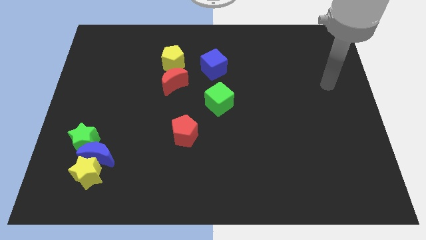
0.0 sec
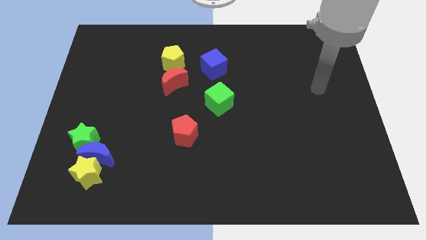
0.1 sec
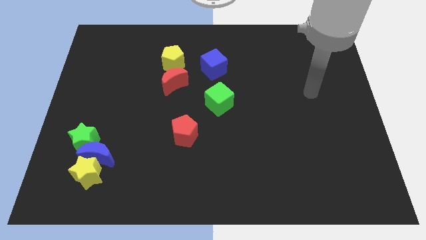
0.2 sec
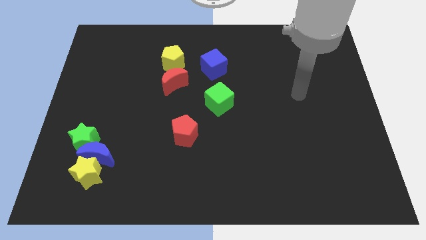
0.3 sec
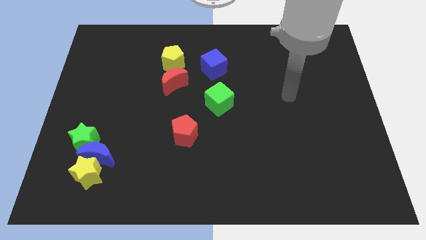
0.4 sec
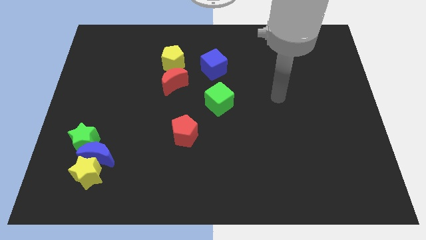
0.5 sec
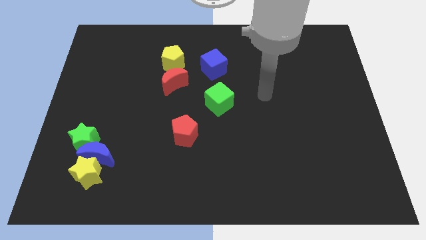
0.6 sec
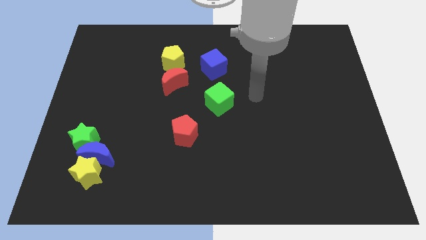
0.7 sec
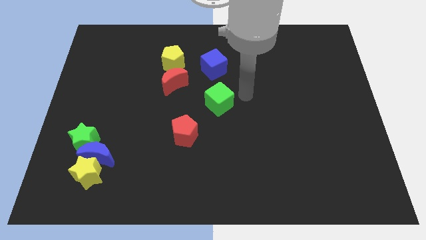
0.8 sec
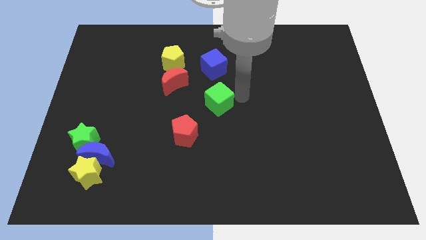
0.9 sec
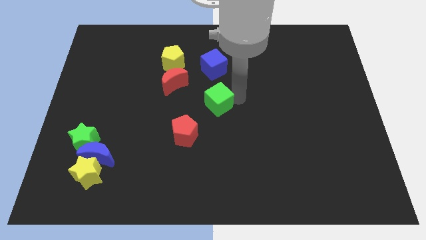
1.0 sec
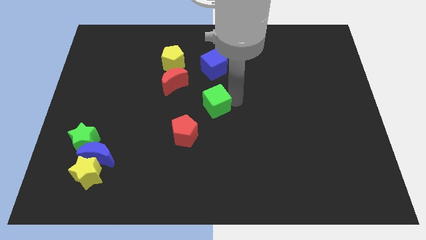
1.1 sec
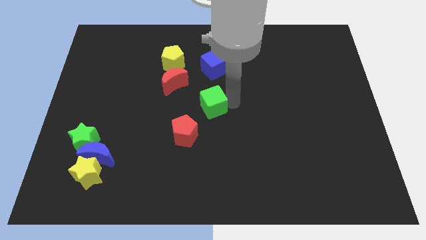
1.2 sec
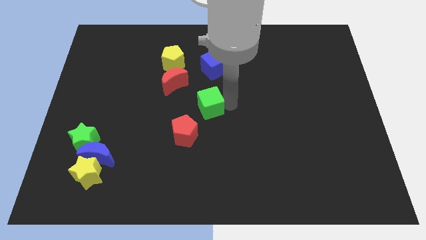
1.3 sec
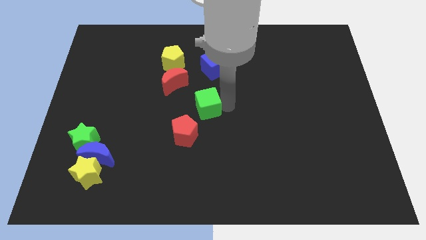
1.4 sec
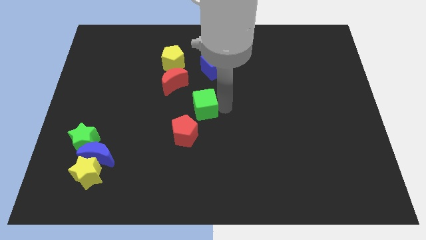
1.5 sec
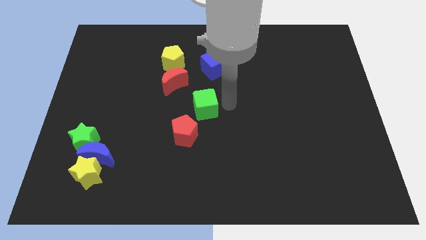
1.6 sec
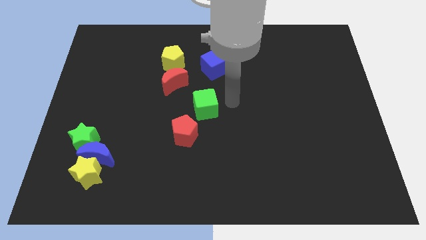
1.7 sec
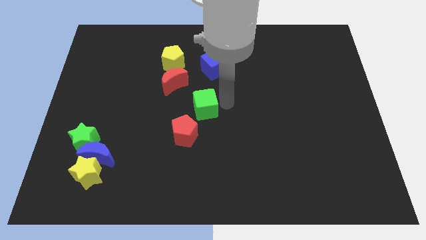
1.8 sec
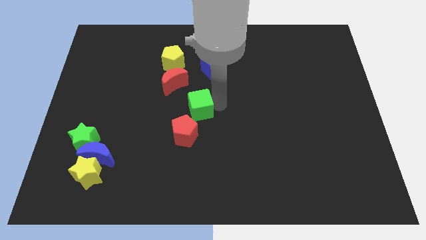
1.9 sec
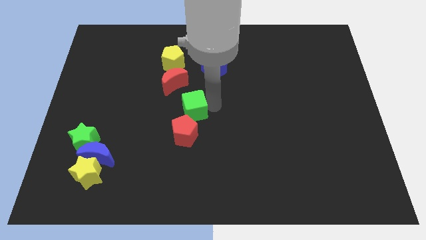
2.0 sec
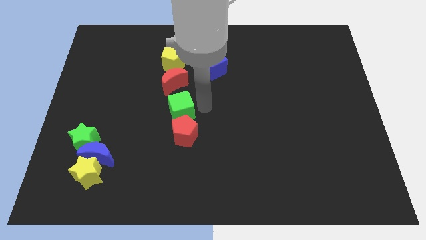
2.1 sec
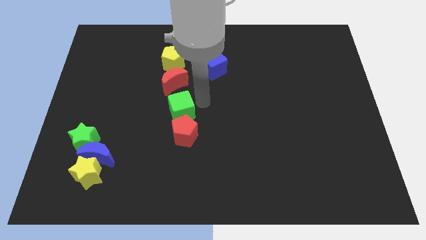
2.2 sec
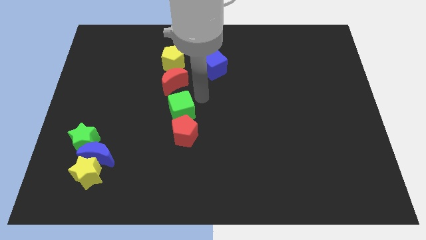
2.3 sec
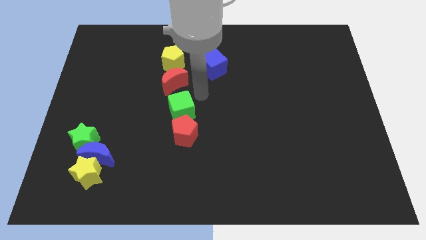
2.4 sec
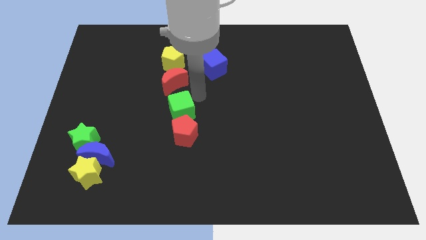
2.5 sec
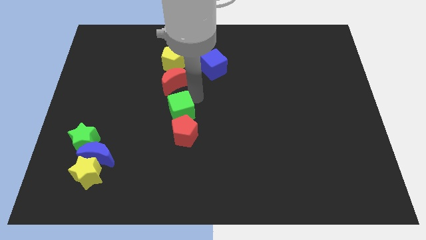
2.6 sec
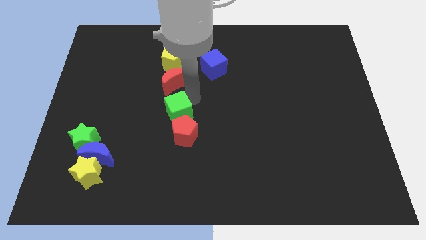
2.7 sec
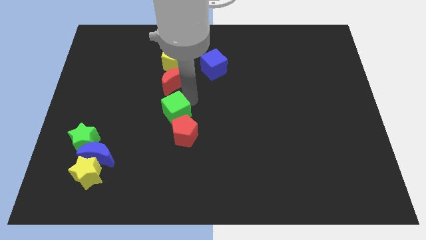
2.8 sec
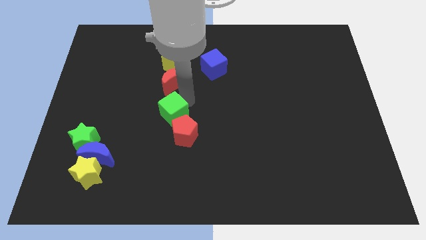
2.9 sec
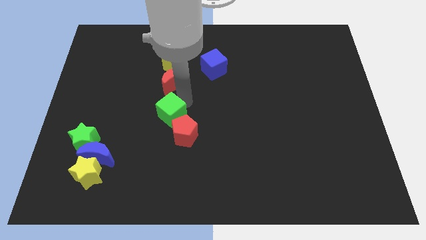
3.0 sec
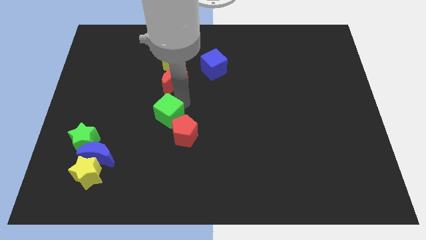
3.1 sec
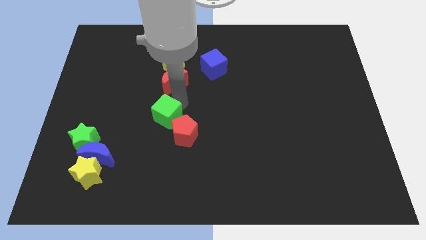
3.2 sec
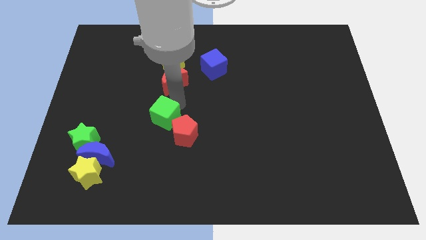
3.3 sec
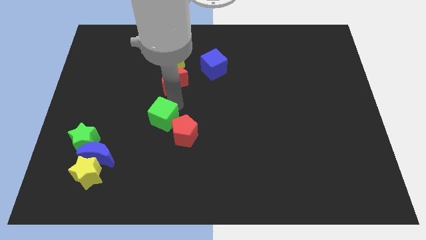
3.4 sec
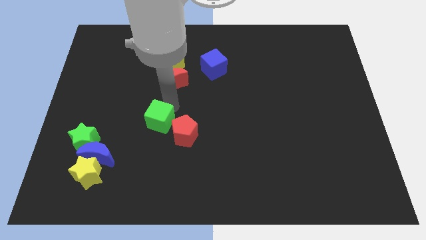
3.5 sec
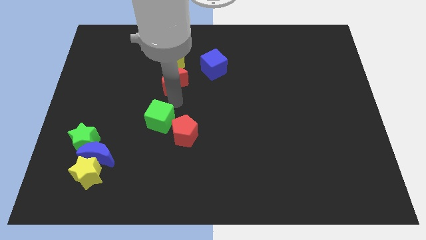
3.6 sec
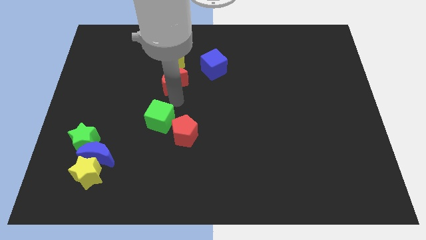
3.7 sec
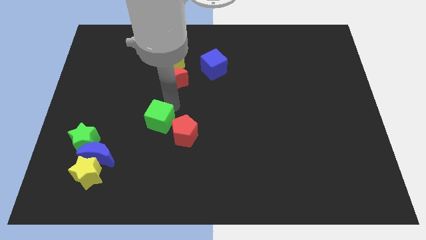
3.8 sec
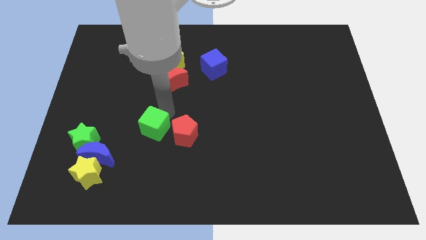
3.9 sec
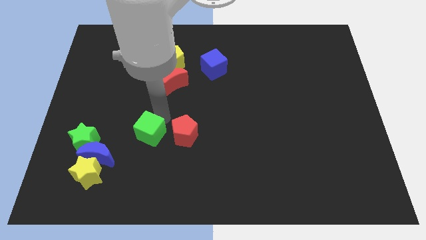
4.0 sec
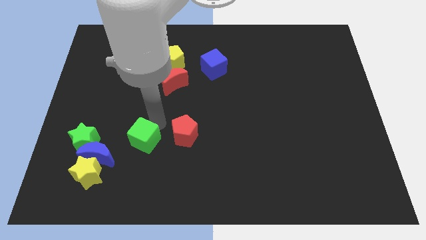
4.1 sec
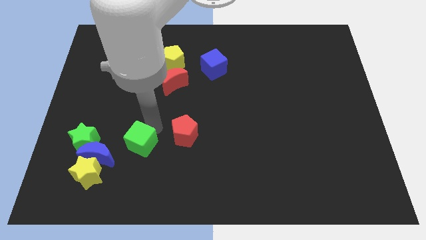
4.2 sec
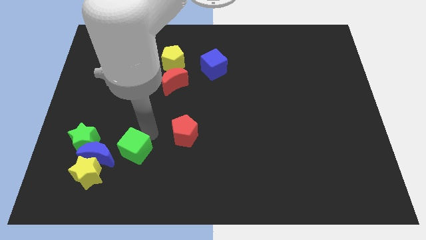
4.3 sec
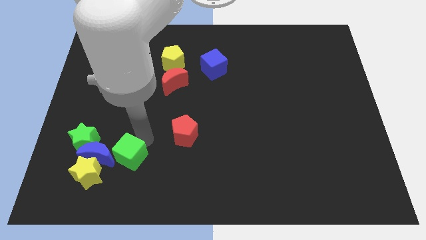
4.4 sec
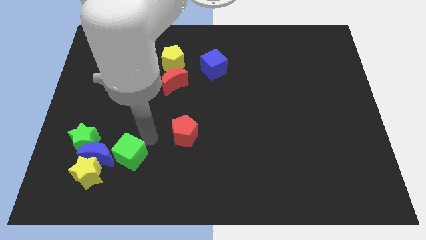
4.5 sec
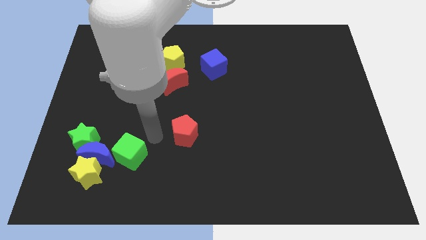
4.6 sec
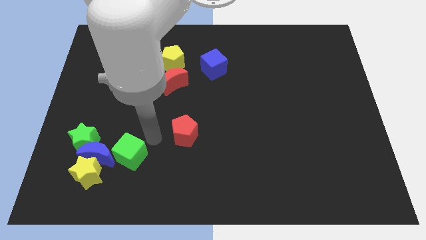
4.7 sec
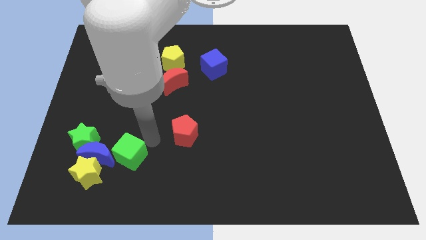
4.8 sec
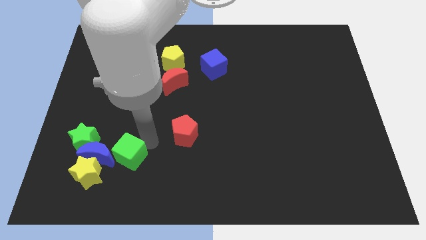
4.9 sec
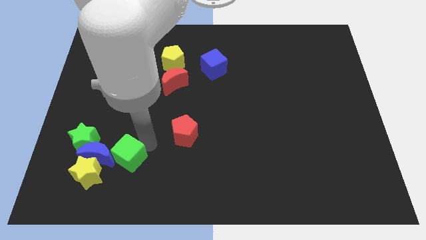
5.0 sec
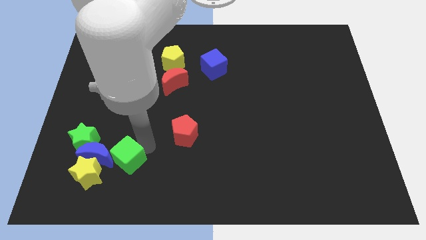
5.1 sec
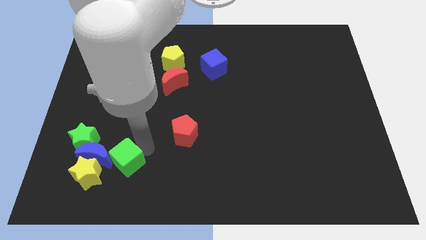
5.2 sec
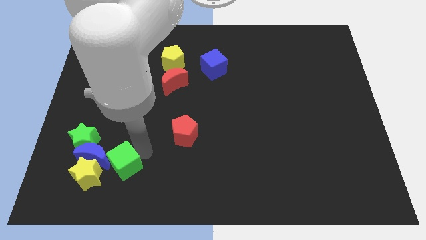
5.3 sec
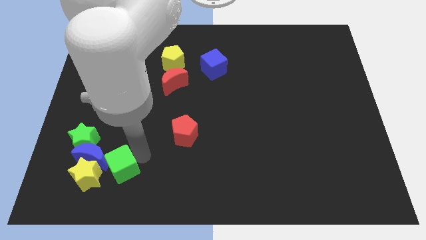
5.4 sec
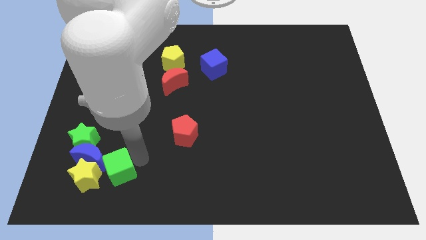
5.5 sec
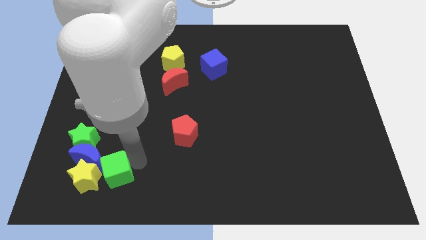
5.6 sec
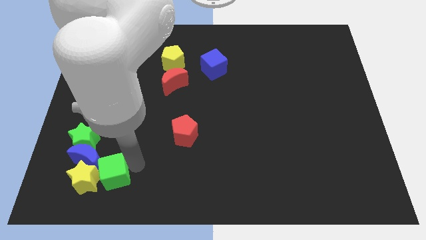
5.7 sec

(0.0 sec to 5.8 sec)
push the green cube towards the yellow star

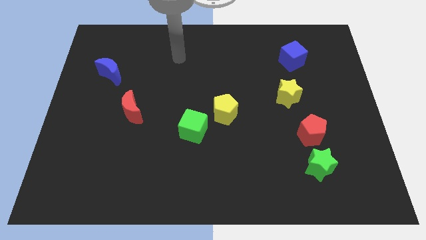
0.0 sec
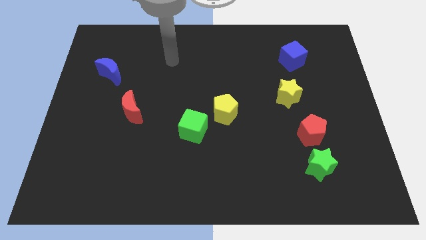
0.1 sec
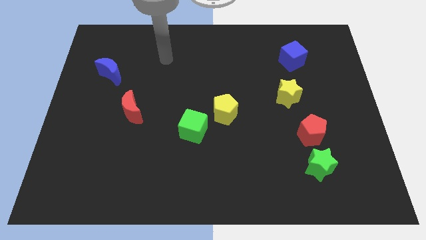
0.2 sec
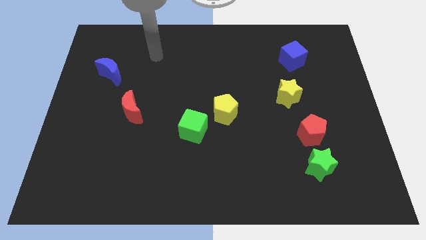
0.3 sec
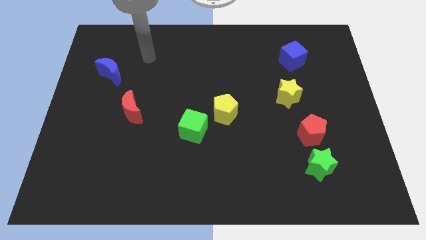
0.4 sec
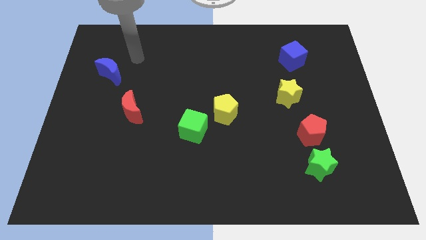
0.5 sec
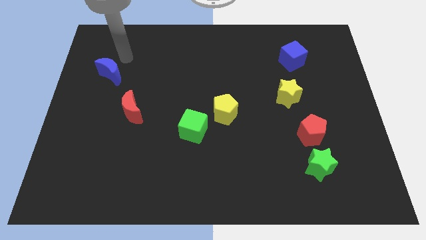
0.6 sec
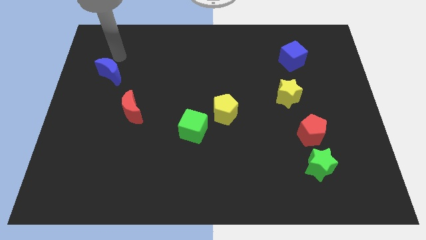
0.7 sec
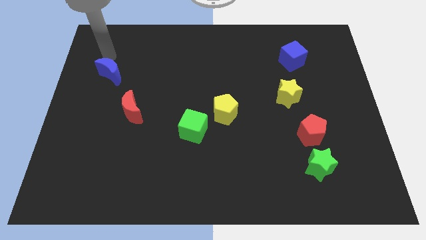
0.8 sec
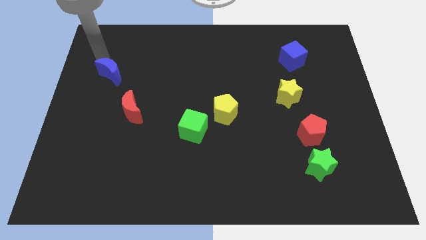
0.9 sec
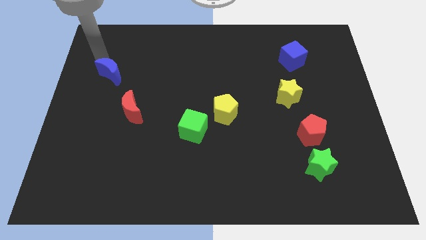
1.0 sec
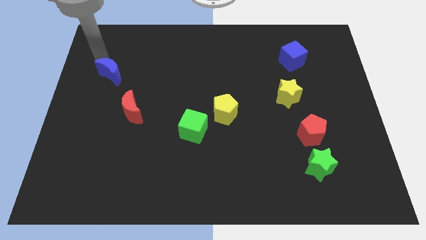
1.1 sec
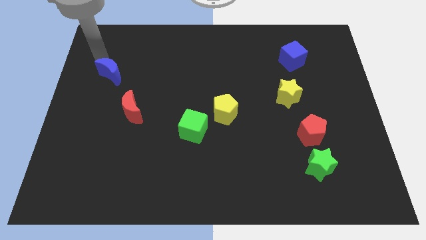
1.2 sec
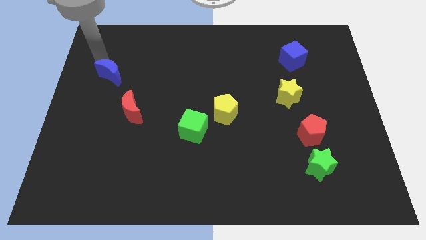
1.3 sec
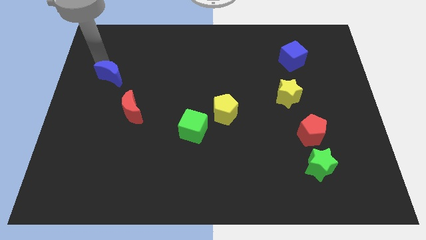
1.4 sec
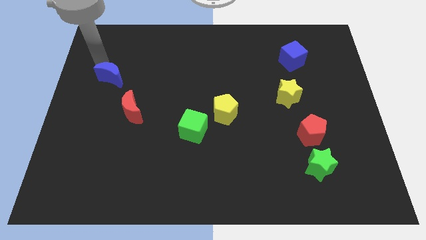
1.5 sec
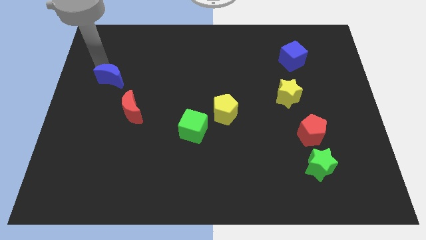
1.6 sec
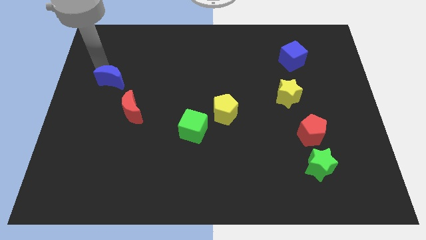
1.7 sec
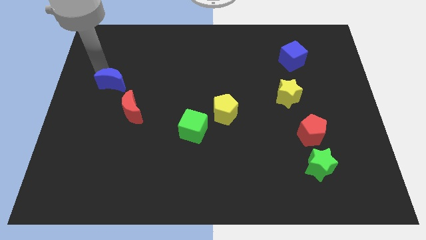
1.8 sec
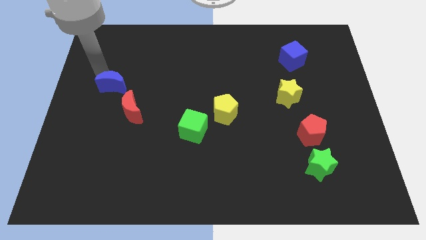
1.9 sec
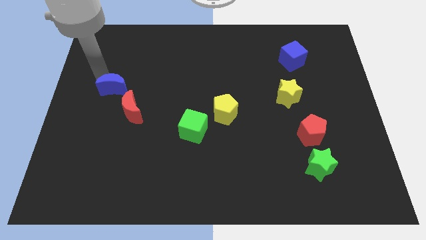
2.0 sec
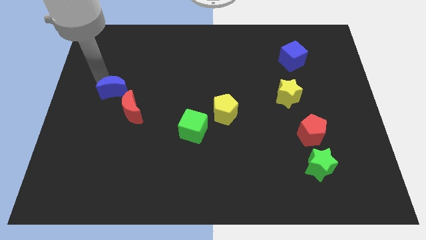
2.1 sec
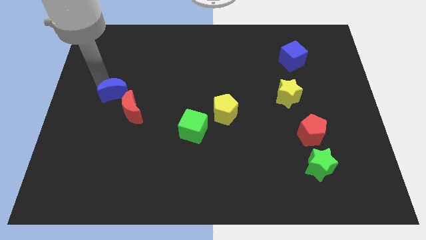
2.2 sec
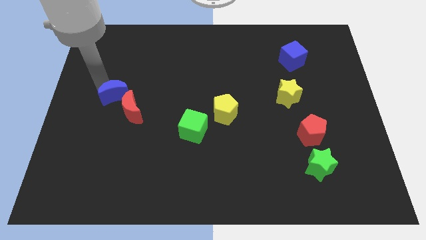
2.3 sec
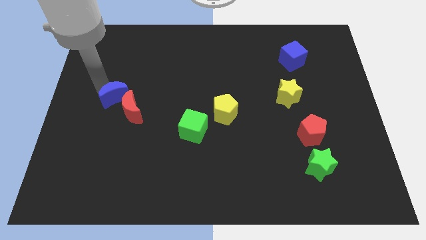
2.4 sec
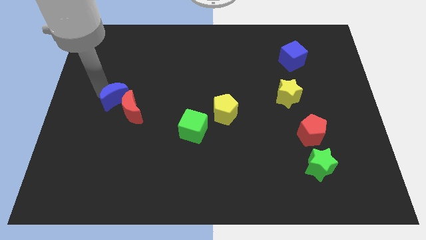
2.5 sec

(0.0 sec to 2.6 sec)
put the blue moon close to the red moon
